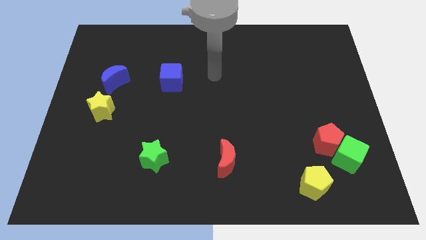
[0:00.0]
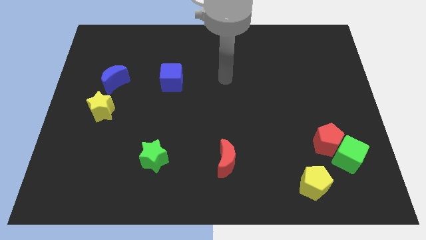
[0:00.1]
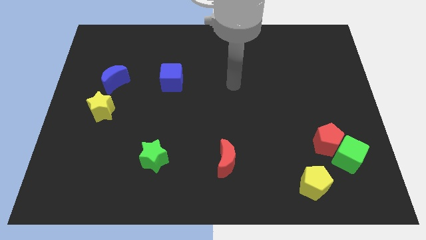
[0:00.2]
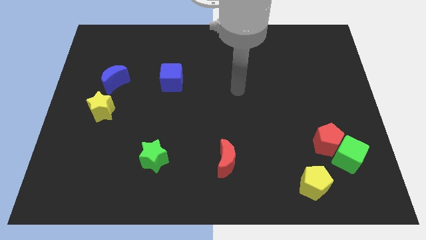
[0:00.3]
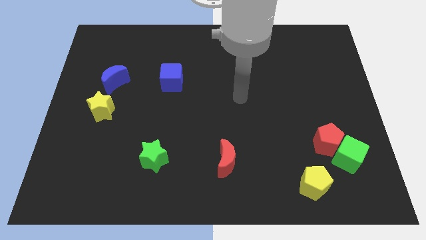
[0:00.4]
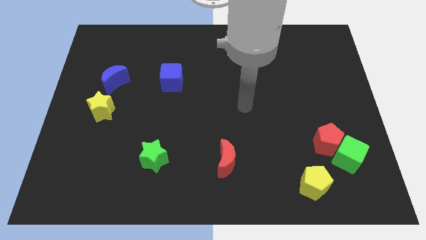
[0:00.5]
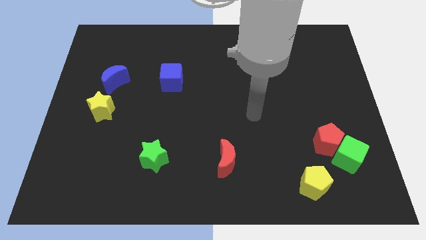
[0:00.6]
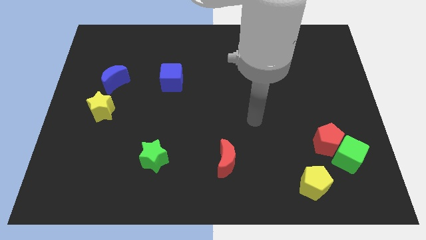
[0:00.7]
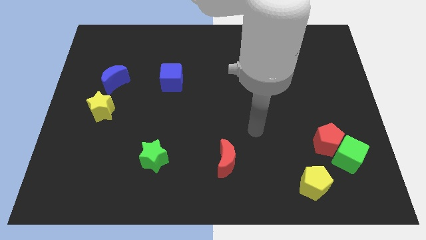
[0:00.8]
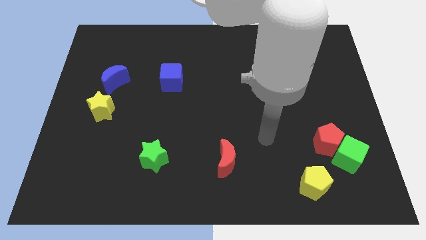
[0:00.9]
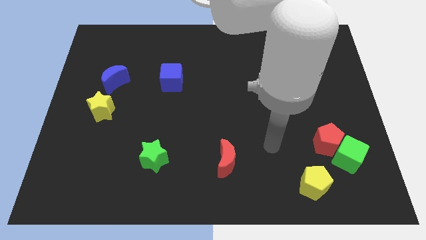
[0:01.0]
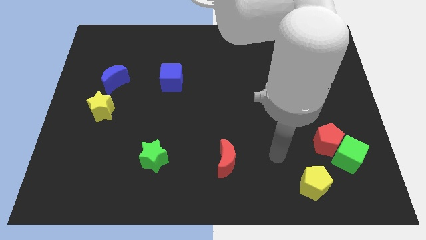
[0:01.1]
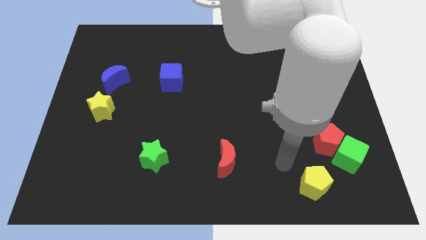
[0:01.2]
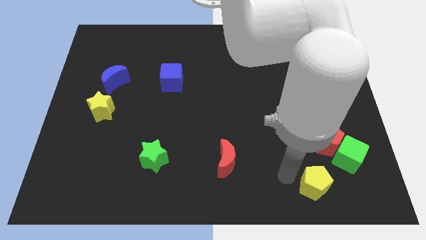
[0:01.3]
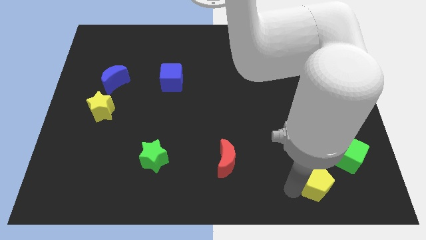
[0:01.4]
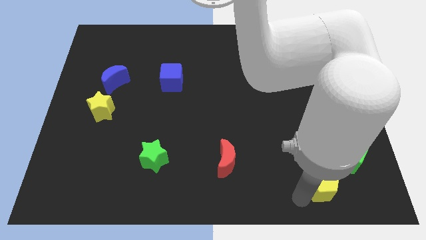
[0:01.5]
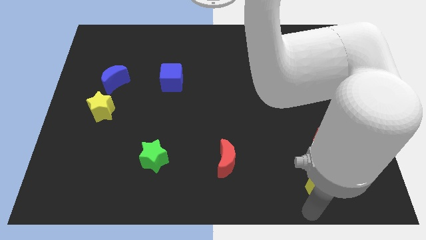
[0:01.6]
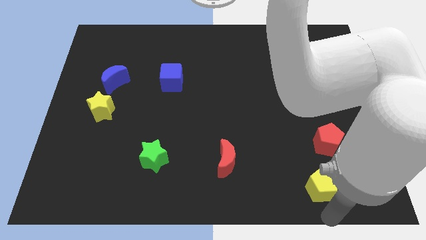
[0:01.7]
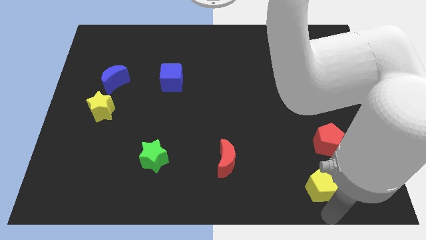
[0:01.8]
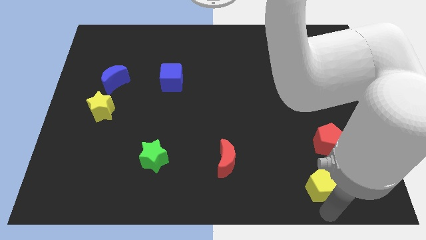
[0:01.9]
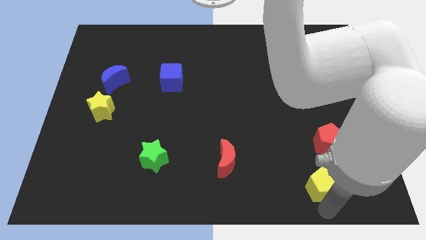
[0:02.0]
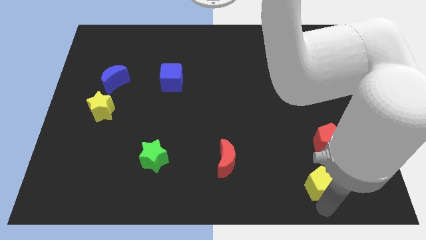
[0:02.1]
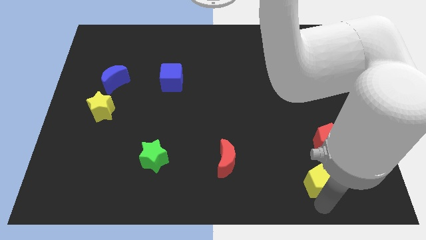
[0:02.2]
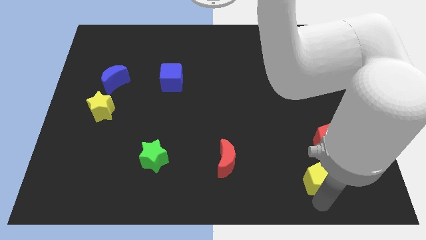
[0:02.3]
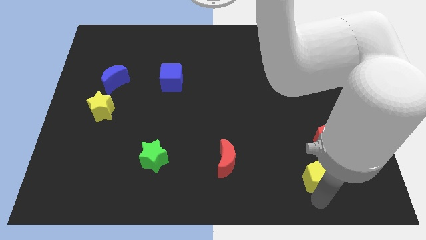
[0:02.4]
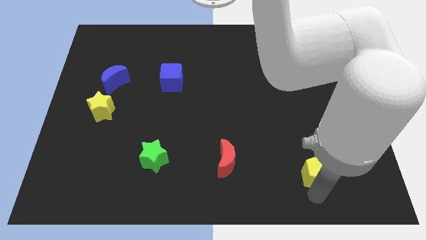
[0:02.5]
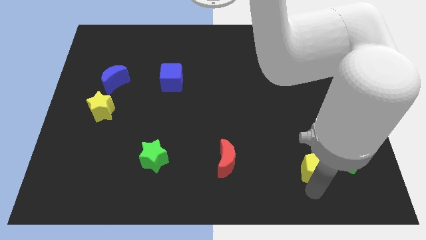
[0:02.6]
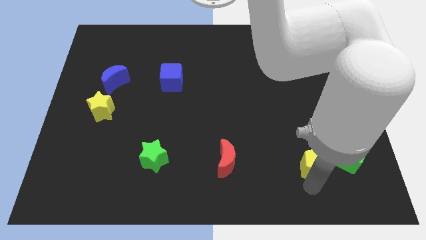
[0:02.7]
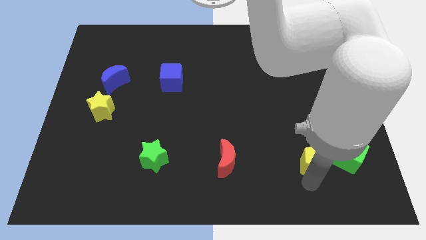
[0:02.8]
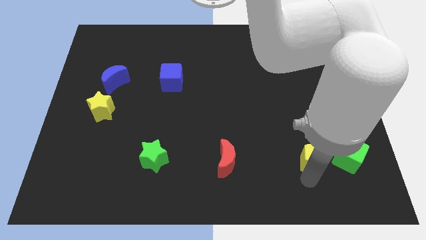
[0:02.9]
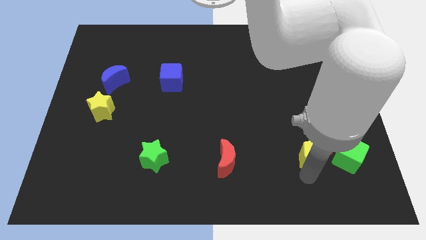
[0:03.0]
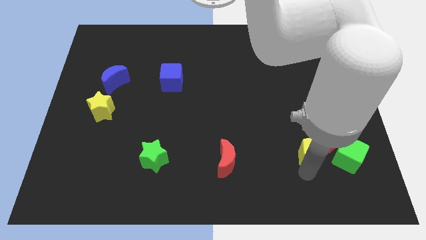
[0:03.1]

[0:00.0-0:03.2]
slide the yellow pentagon a little bit up

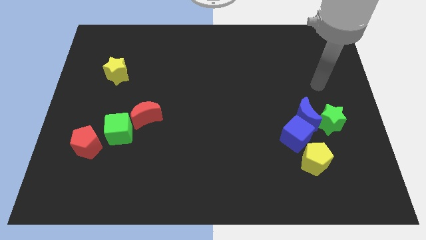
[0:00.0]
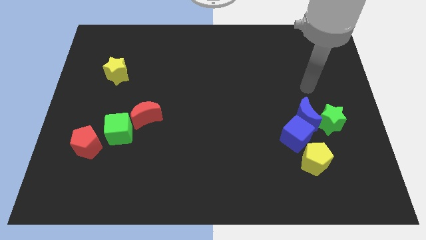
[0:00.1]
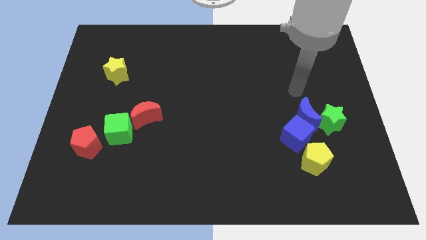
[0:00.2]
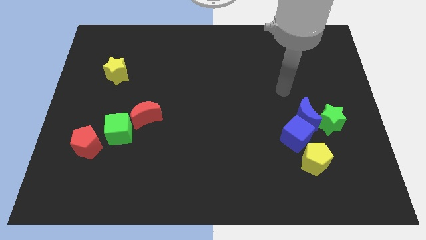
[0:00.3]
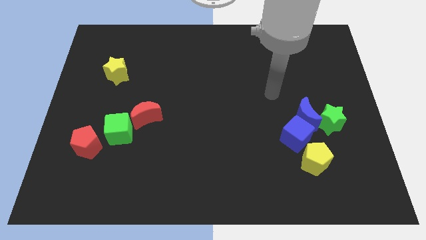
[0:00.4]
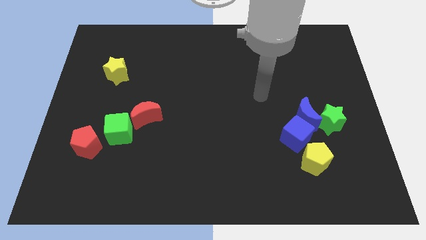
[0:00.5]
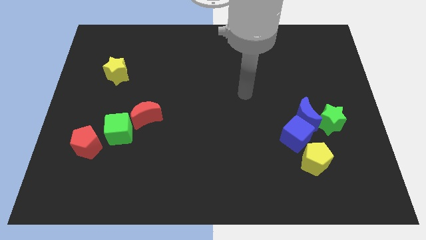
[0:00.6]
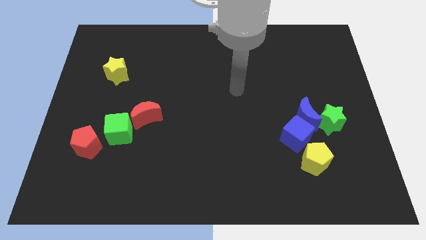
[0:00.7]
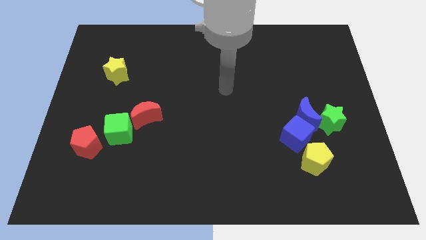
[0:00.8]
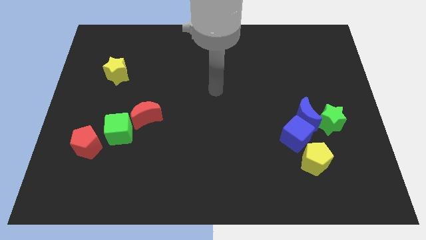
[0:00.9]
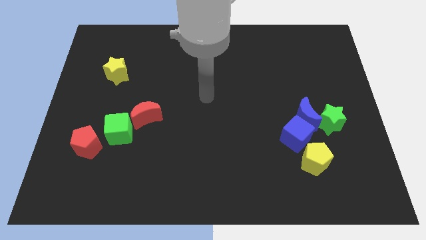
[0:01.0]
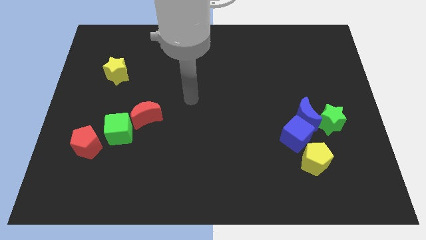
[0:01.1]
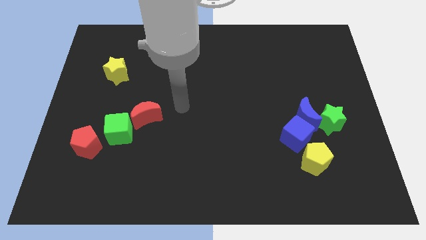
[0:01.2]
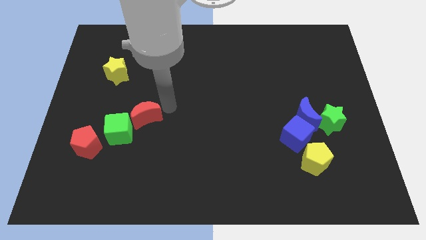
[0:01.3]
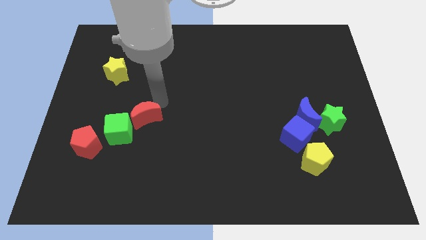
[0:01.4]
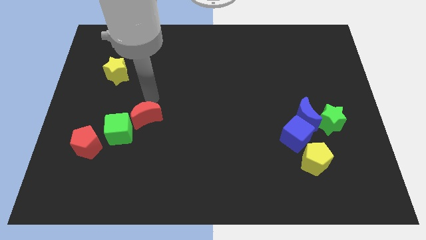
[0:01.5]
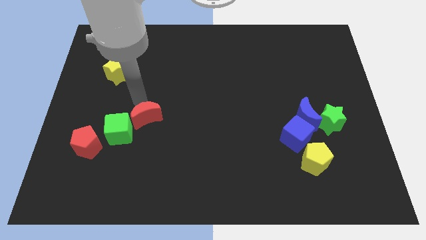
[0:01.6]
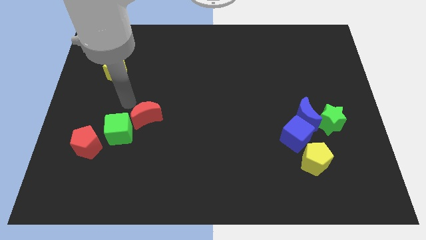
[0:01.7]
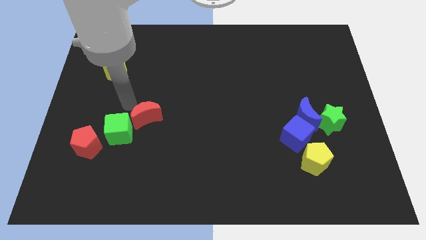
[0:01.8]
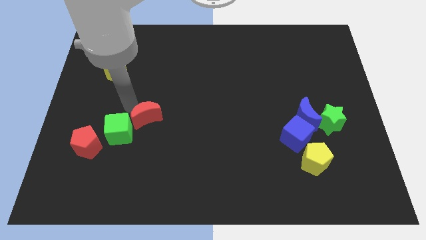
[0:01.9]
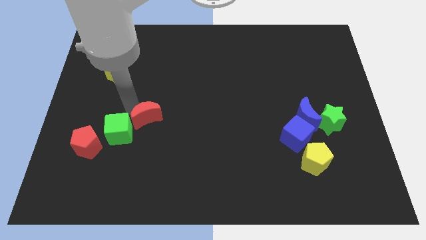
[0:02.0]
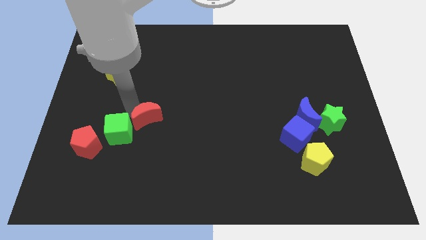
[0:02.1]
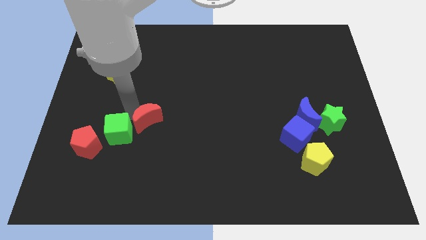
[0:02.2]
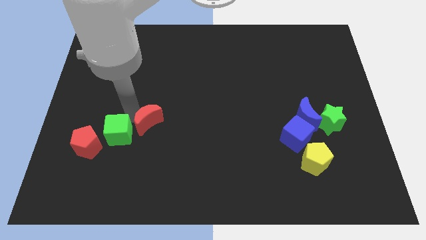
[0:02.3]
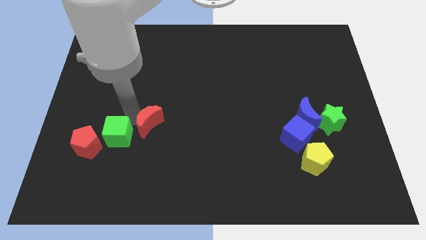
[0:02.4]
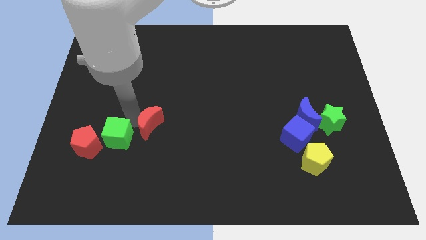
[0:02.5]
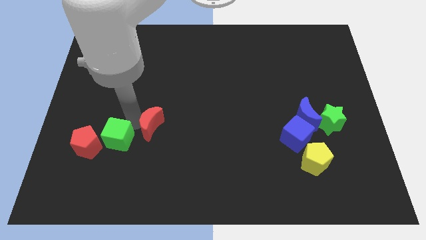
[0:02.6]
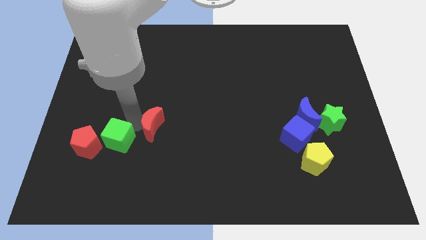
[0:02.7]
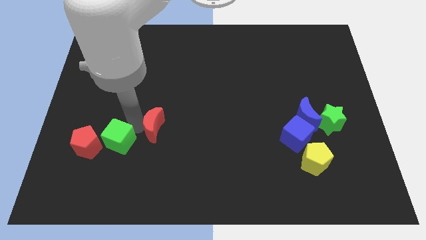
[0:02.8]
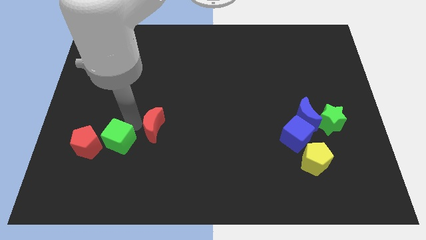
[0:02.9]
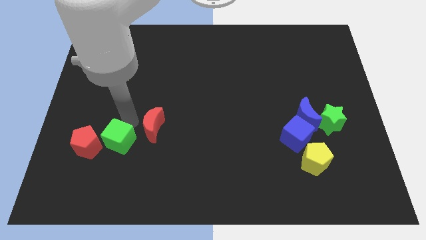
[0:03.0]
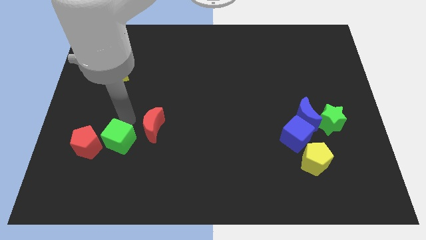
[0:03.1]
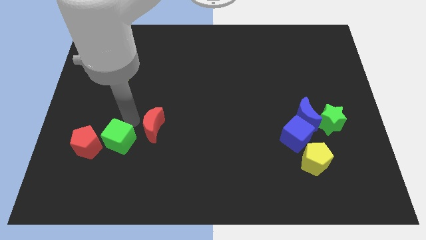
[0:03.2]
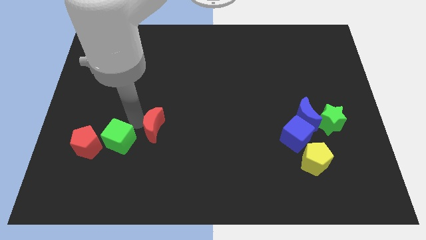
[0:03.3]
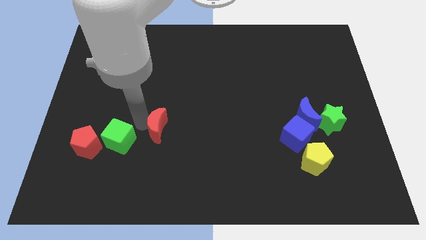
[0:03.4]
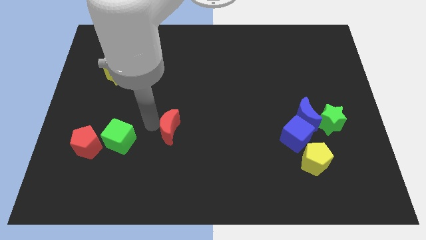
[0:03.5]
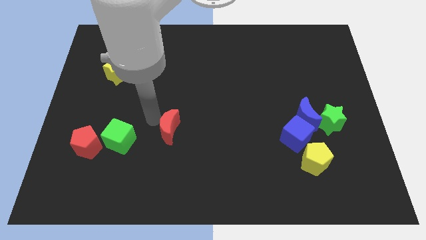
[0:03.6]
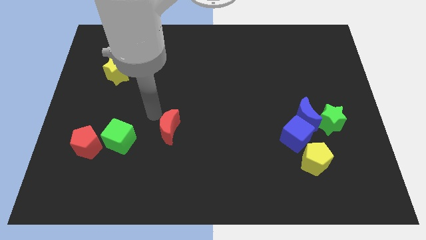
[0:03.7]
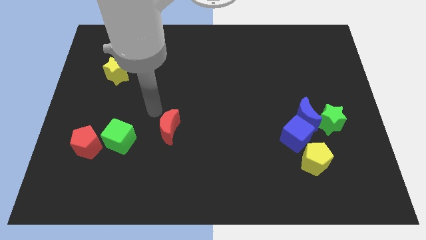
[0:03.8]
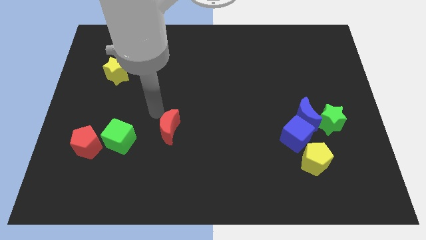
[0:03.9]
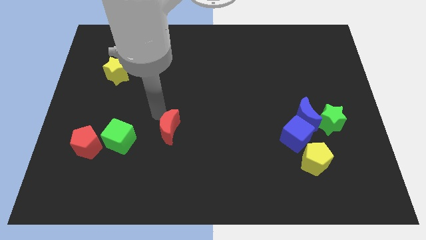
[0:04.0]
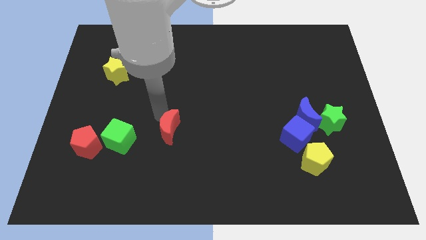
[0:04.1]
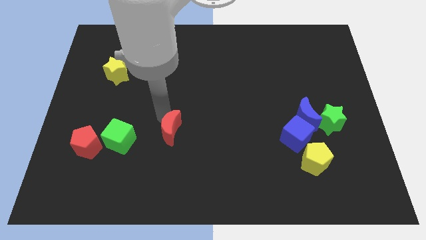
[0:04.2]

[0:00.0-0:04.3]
slightly move the red moon diagonally down and to the right

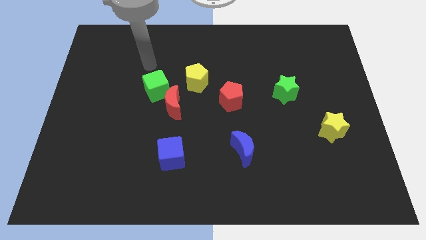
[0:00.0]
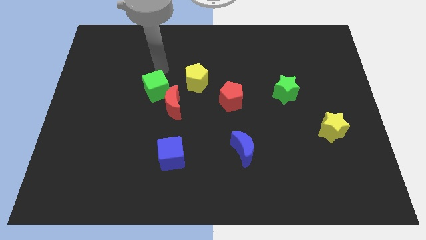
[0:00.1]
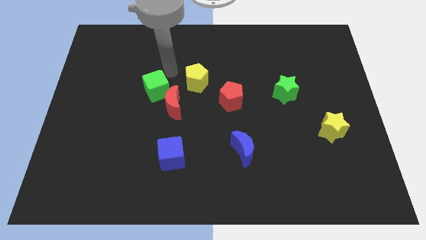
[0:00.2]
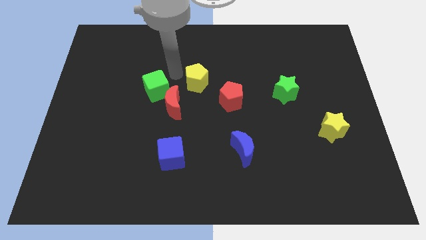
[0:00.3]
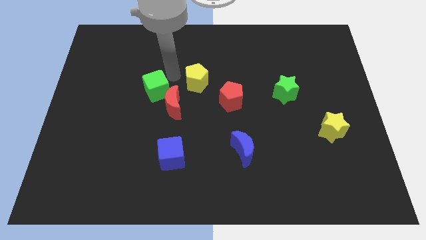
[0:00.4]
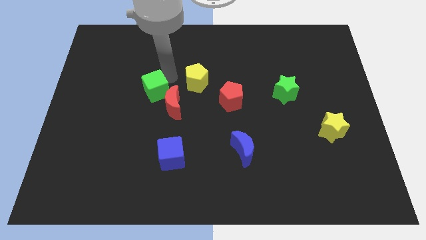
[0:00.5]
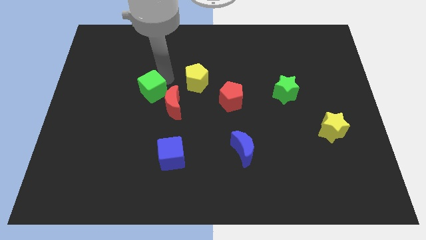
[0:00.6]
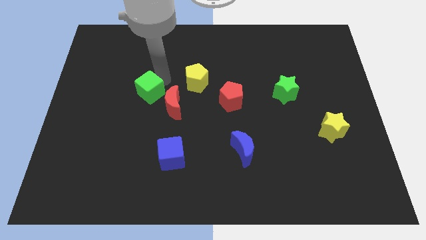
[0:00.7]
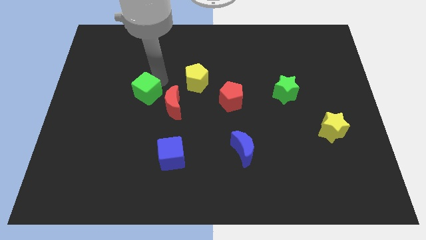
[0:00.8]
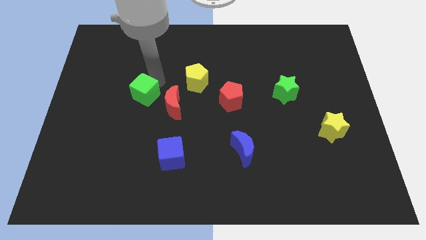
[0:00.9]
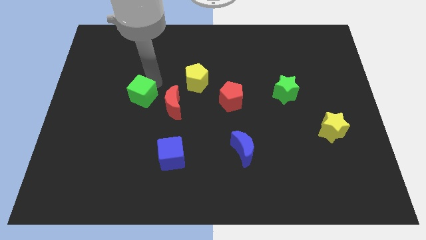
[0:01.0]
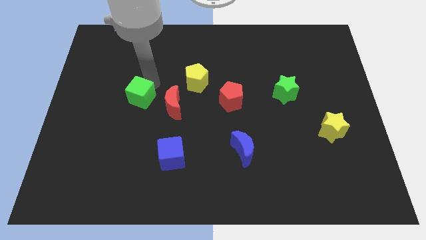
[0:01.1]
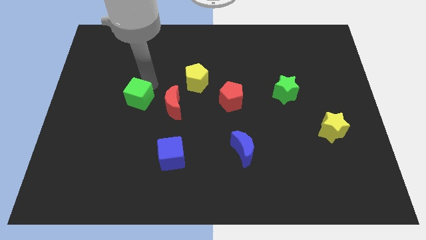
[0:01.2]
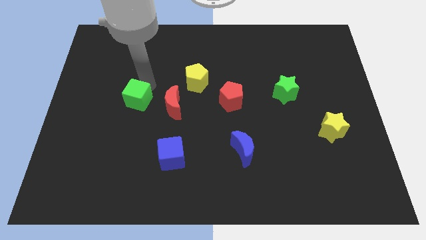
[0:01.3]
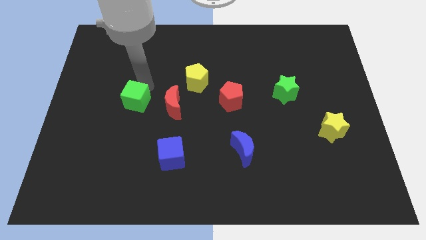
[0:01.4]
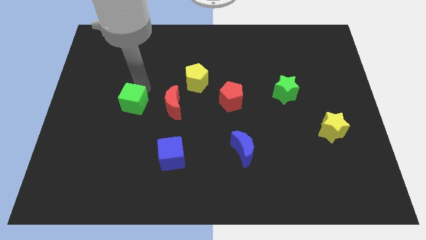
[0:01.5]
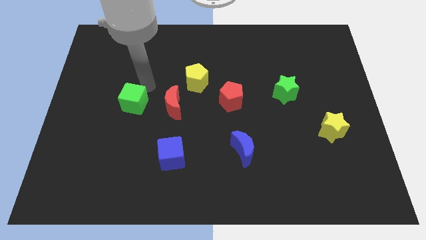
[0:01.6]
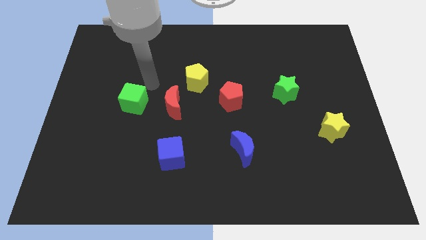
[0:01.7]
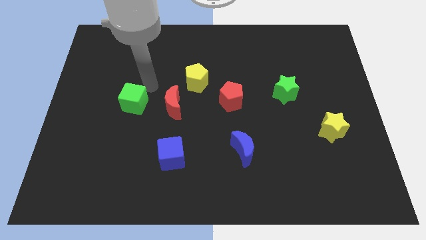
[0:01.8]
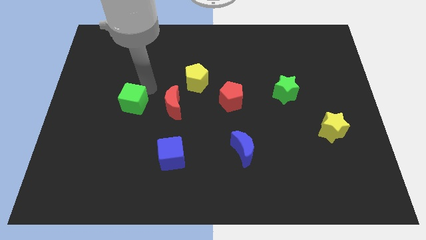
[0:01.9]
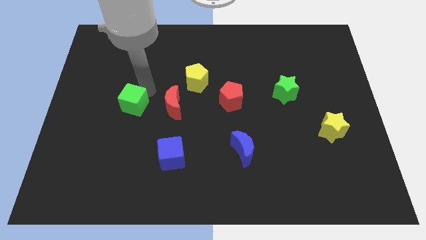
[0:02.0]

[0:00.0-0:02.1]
slide the green cube a little bit diagonally downwards and left
